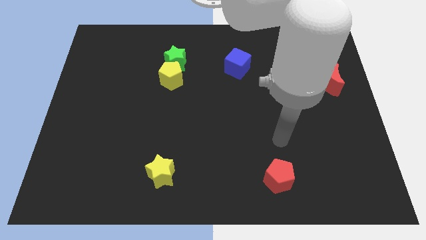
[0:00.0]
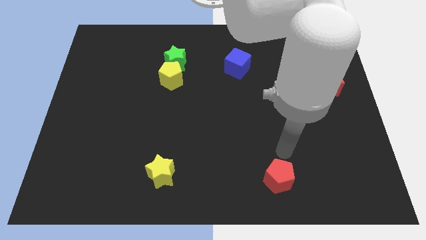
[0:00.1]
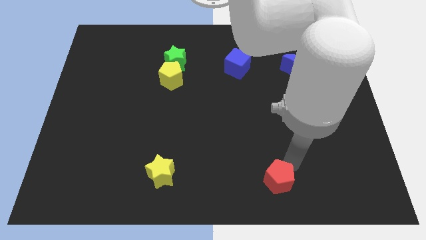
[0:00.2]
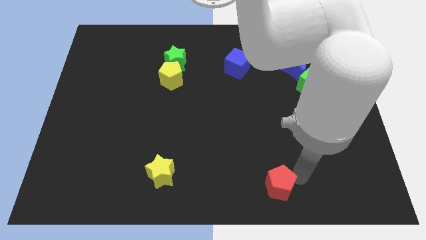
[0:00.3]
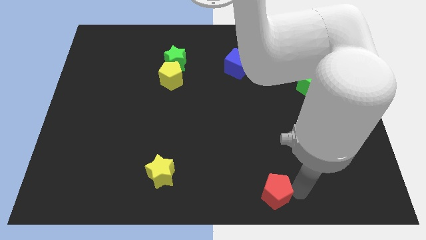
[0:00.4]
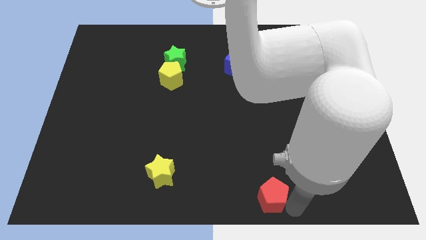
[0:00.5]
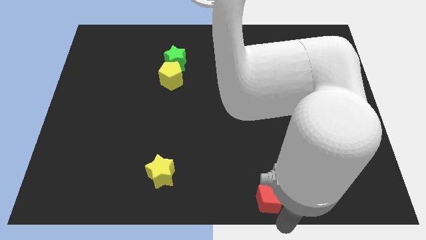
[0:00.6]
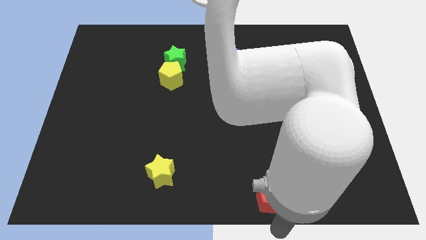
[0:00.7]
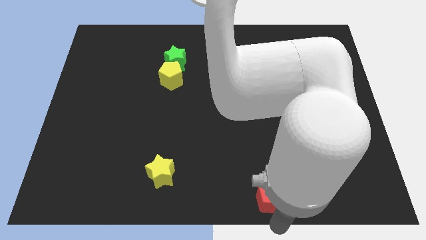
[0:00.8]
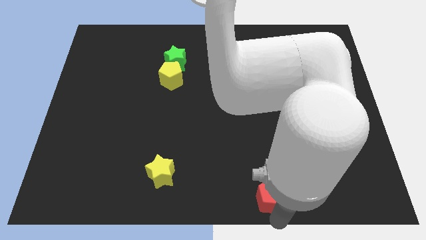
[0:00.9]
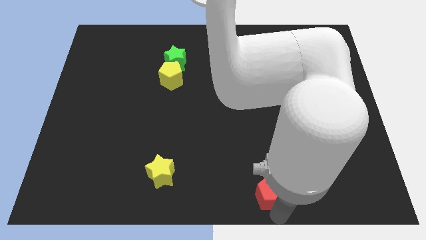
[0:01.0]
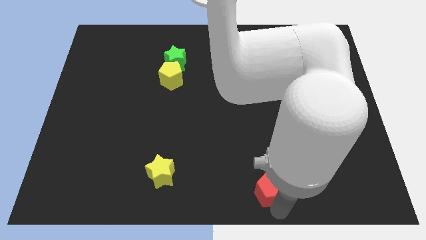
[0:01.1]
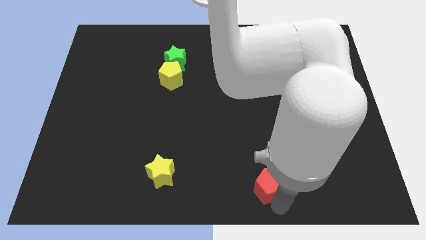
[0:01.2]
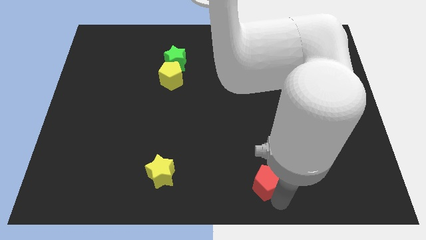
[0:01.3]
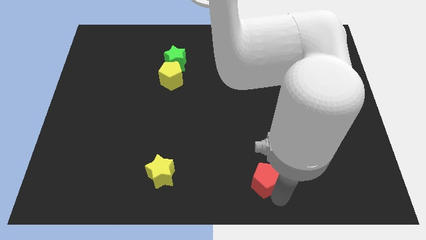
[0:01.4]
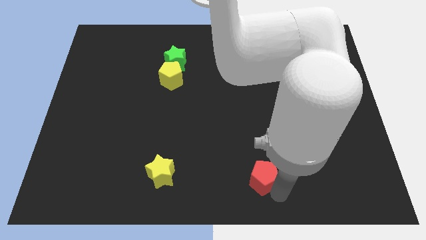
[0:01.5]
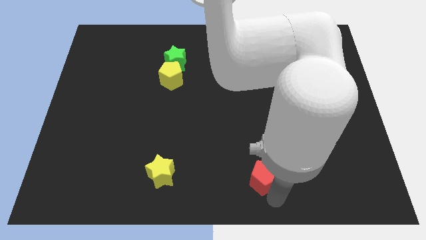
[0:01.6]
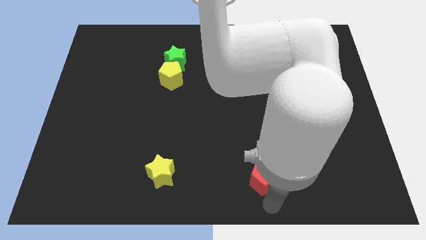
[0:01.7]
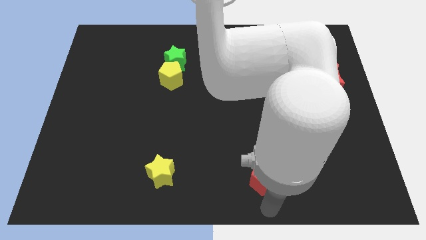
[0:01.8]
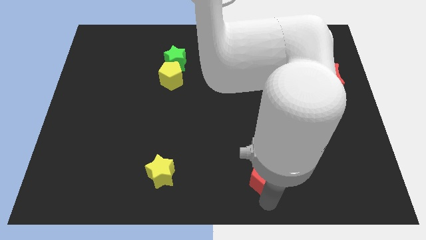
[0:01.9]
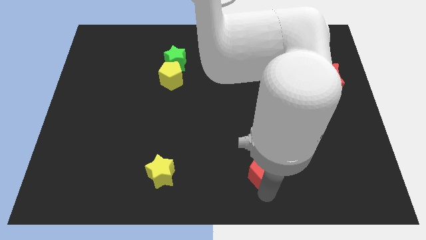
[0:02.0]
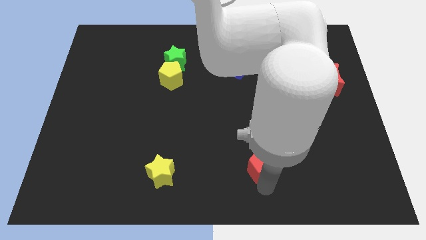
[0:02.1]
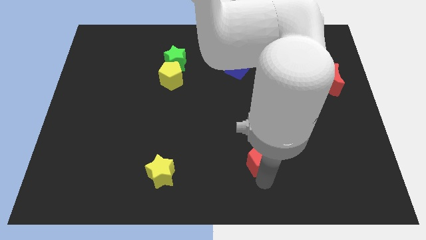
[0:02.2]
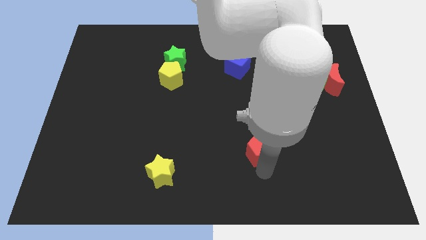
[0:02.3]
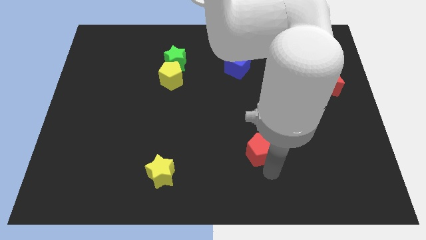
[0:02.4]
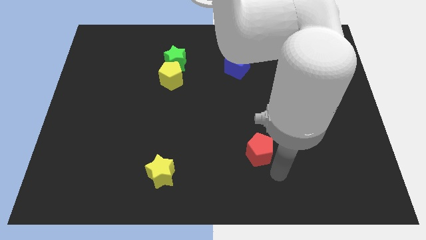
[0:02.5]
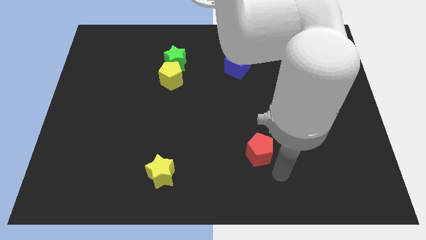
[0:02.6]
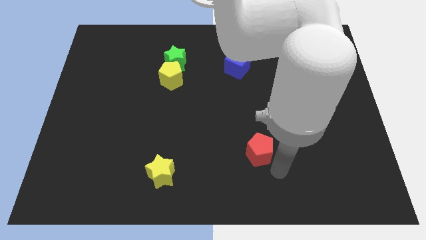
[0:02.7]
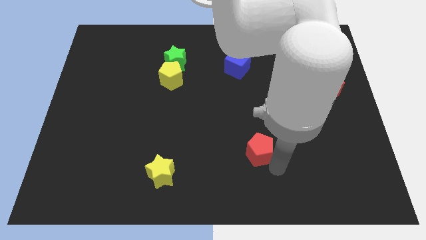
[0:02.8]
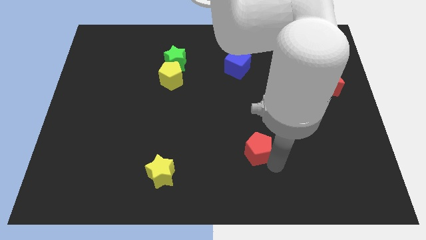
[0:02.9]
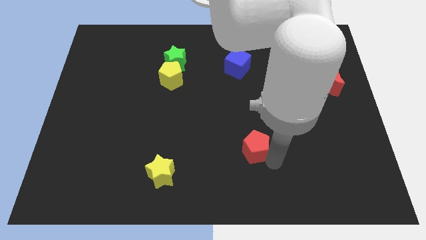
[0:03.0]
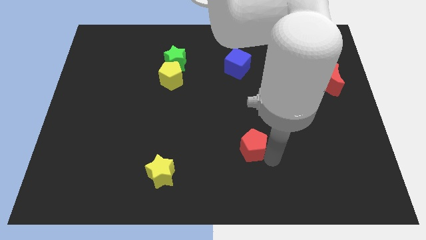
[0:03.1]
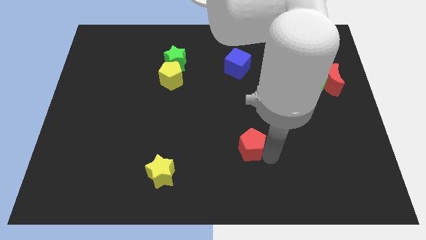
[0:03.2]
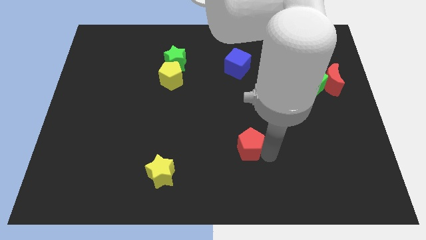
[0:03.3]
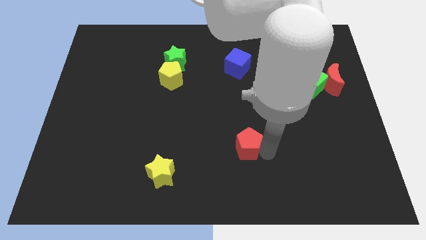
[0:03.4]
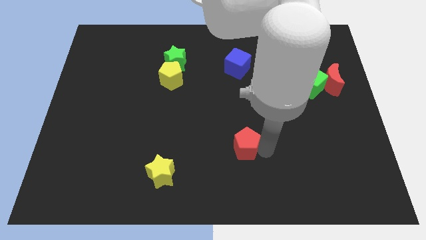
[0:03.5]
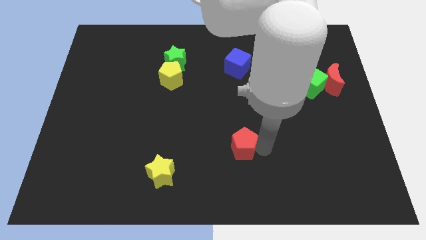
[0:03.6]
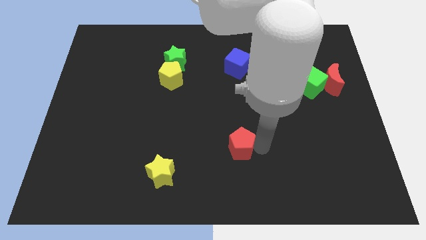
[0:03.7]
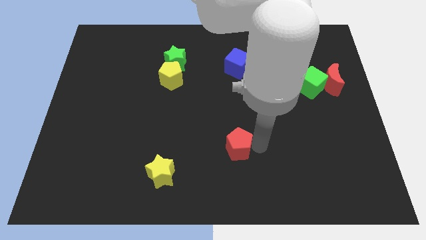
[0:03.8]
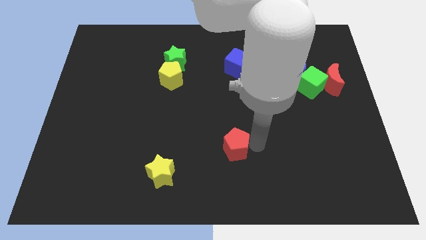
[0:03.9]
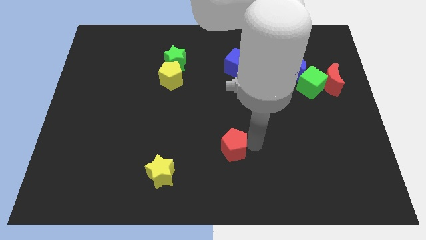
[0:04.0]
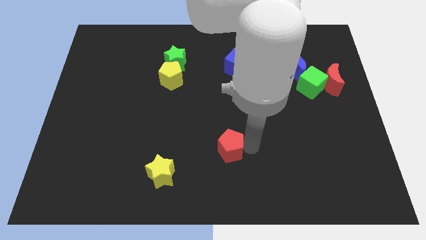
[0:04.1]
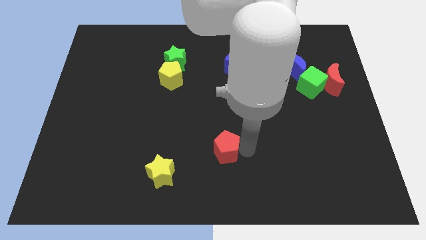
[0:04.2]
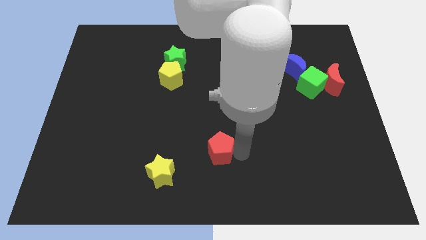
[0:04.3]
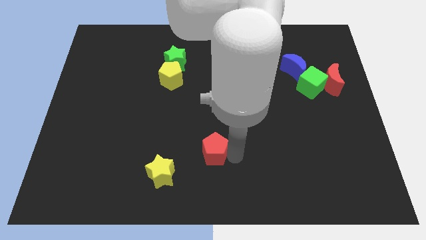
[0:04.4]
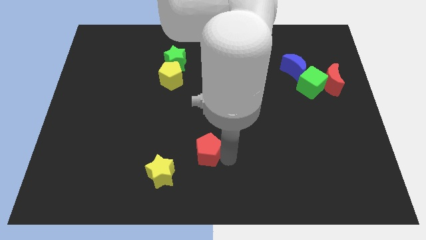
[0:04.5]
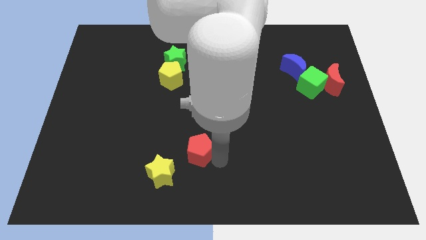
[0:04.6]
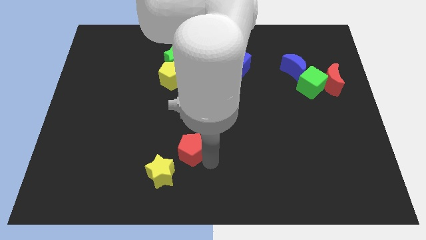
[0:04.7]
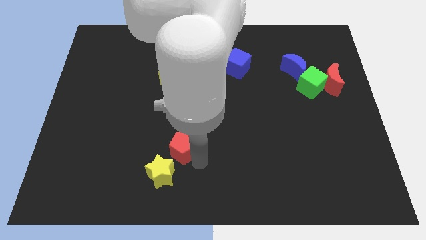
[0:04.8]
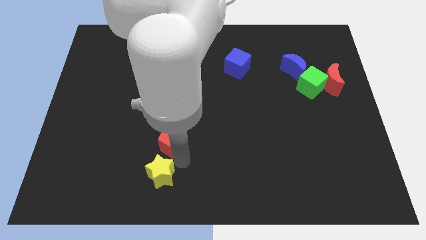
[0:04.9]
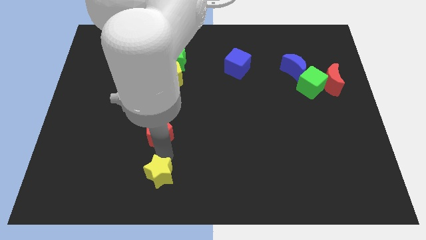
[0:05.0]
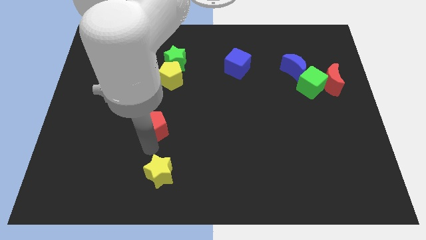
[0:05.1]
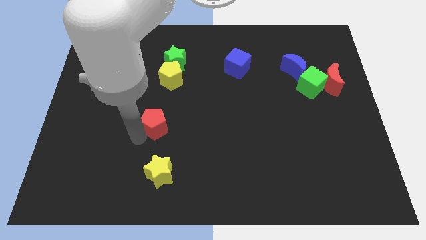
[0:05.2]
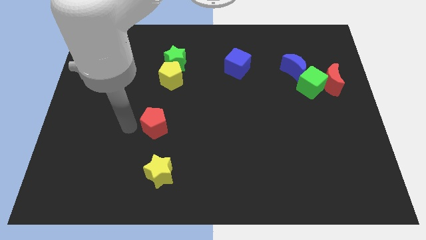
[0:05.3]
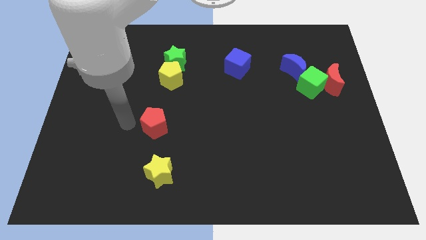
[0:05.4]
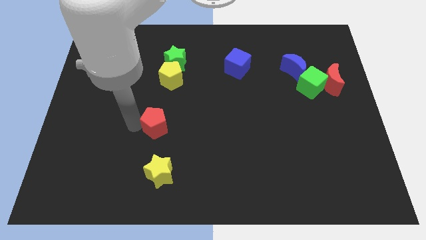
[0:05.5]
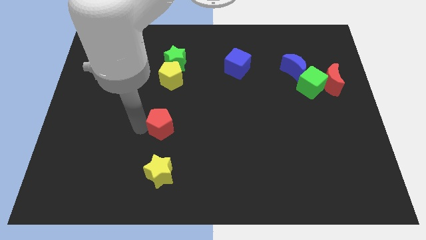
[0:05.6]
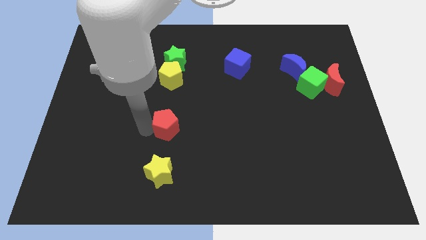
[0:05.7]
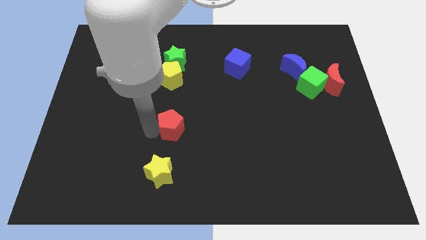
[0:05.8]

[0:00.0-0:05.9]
move the red pentagon to the center

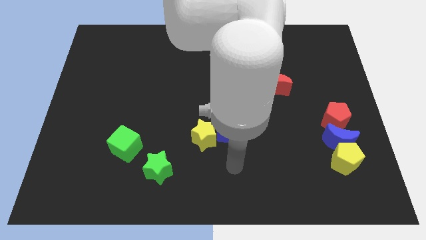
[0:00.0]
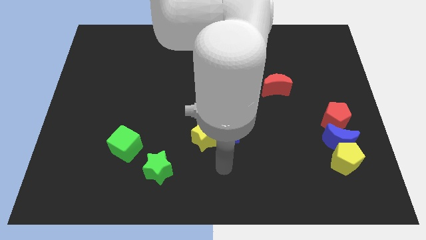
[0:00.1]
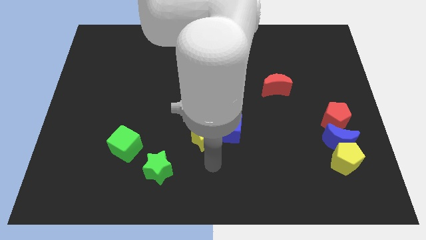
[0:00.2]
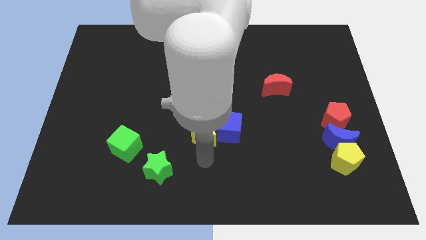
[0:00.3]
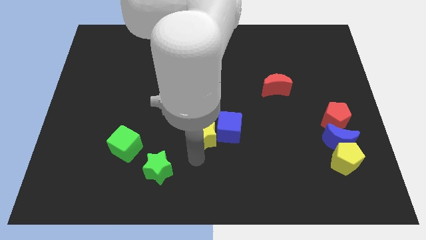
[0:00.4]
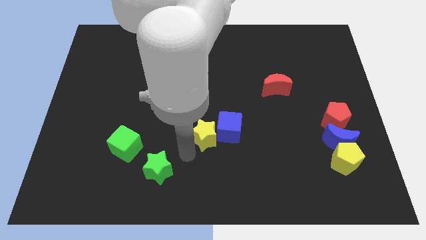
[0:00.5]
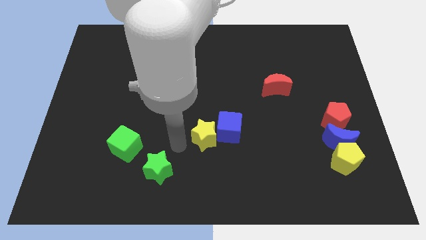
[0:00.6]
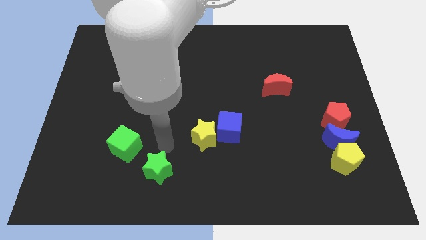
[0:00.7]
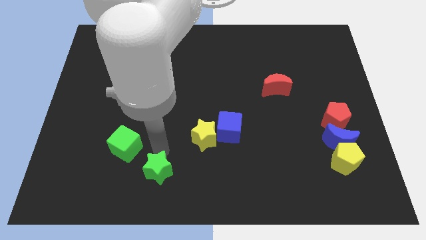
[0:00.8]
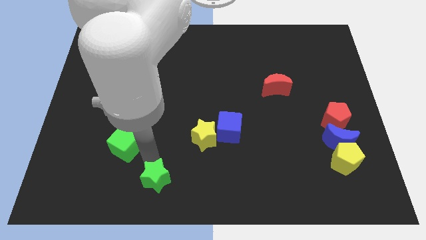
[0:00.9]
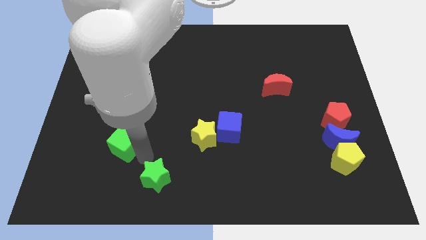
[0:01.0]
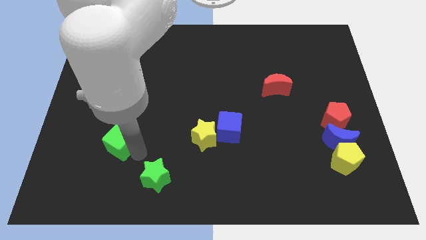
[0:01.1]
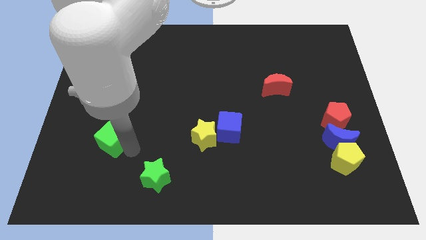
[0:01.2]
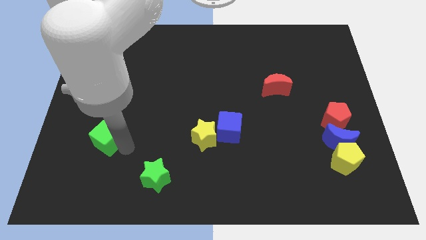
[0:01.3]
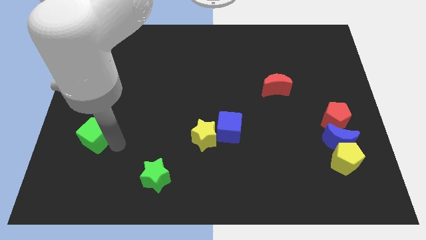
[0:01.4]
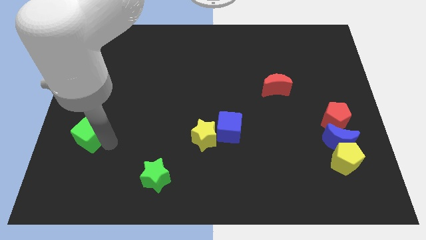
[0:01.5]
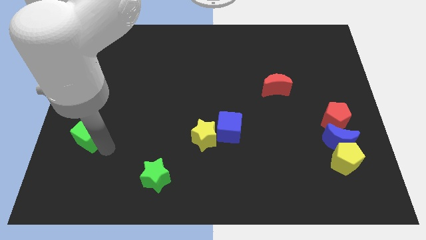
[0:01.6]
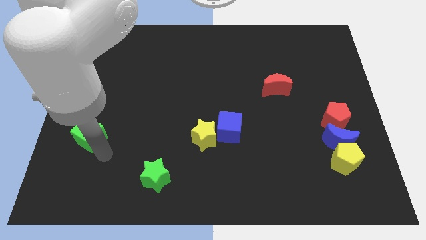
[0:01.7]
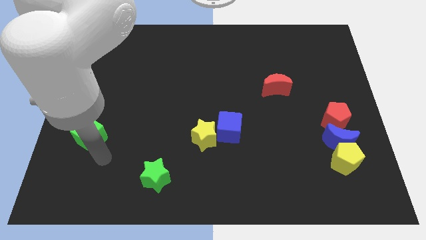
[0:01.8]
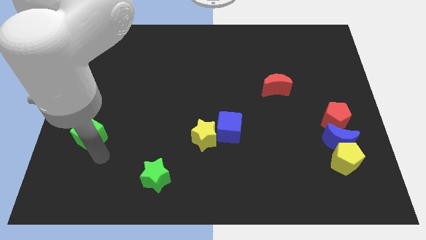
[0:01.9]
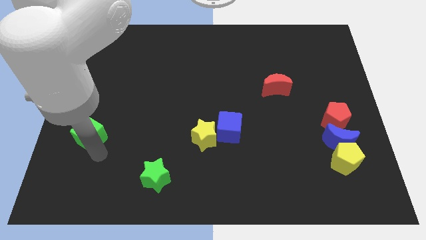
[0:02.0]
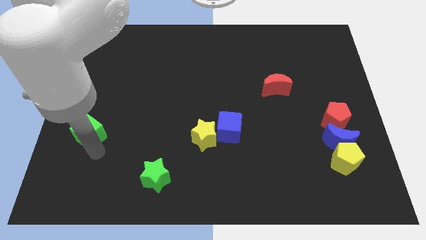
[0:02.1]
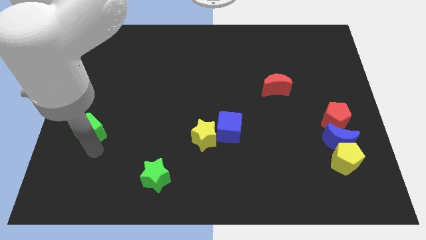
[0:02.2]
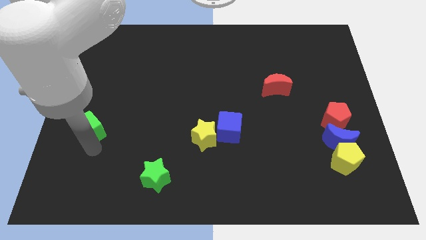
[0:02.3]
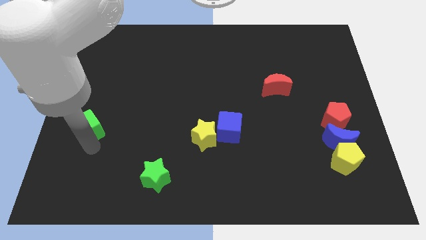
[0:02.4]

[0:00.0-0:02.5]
push the green cube to the center left
